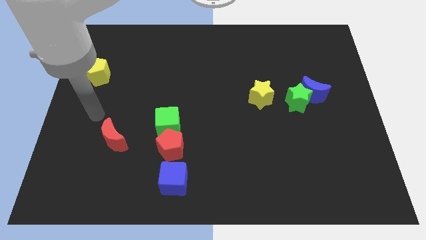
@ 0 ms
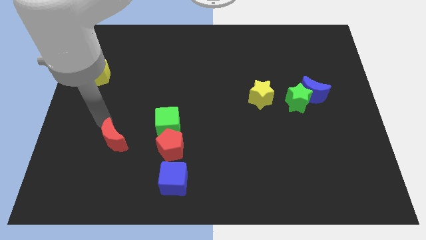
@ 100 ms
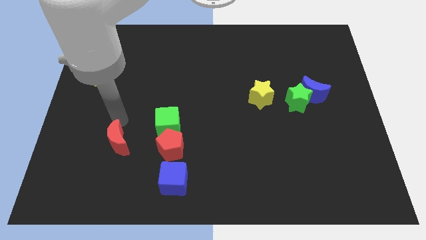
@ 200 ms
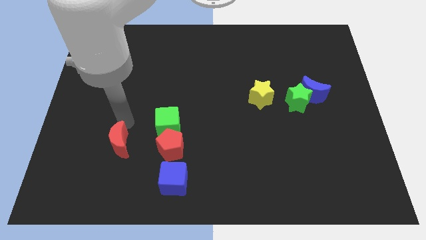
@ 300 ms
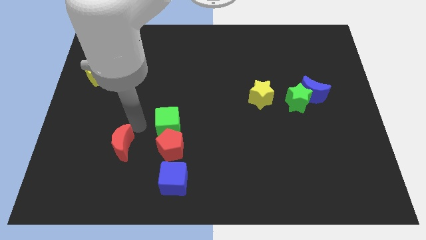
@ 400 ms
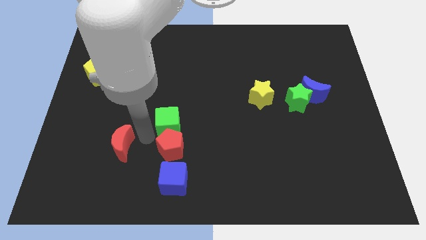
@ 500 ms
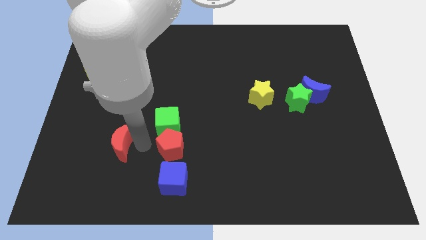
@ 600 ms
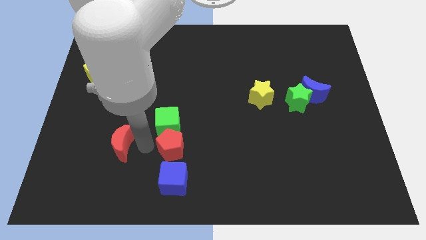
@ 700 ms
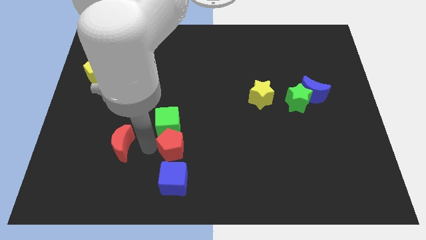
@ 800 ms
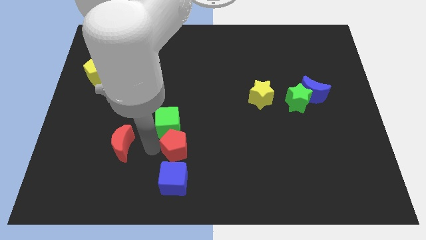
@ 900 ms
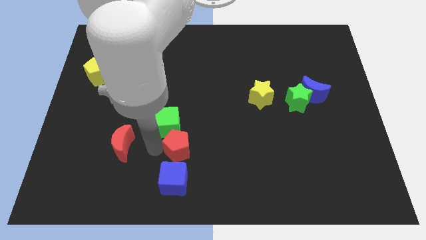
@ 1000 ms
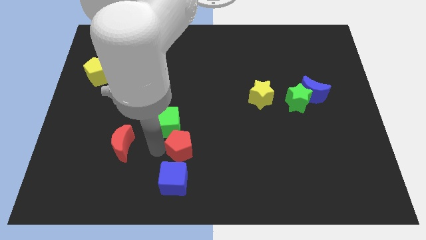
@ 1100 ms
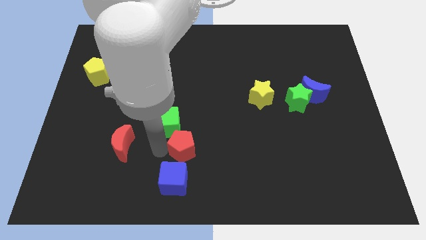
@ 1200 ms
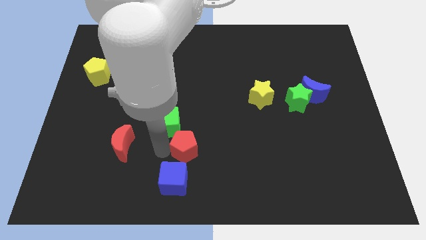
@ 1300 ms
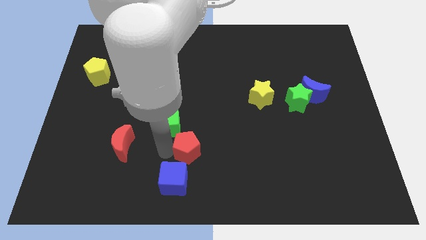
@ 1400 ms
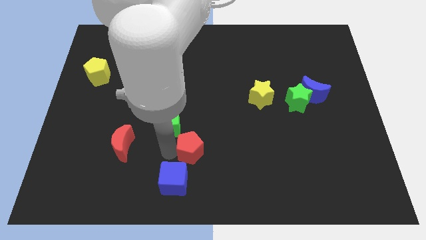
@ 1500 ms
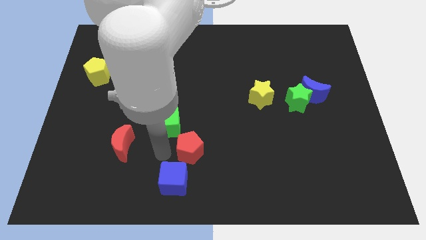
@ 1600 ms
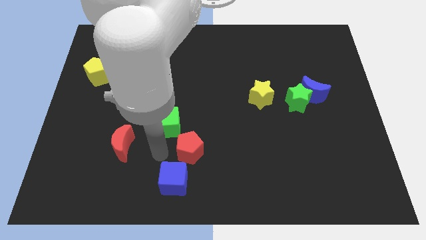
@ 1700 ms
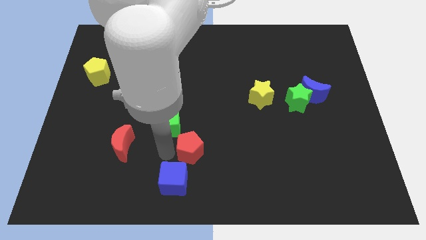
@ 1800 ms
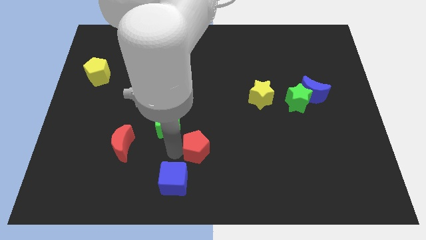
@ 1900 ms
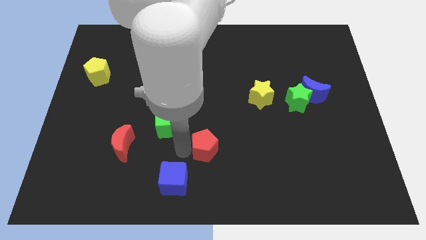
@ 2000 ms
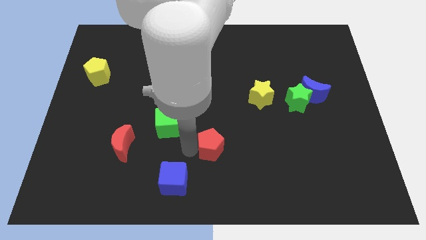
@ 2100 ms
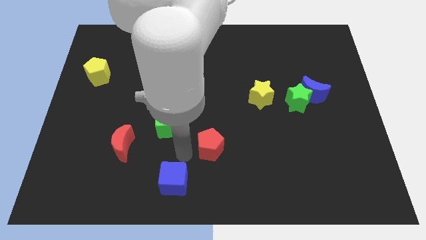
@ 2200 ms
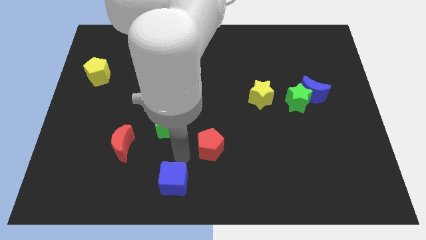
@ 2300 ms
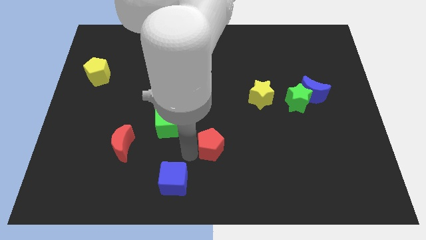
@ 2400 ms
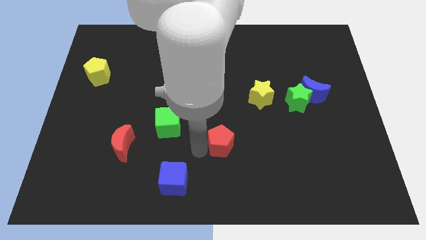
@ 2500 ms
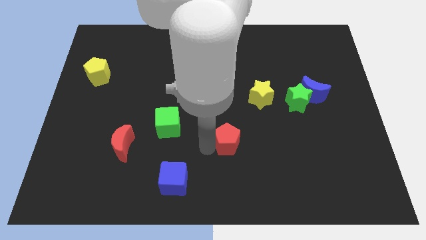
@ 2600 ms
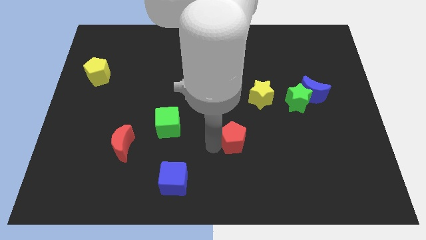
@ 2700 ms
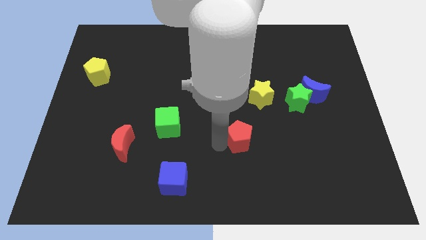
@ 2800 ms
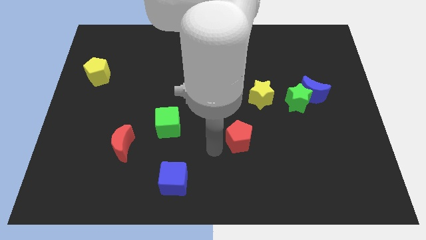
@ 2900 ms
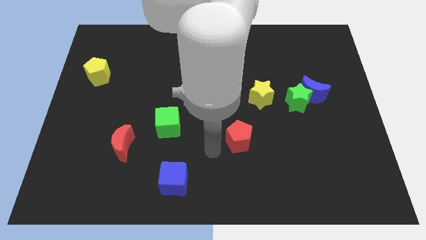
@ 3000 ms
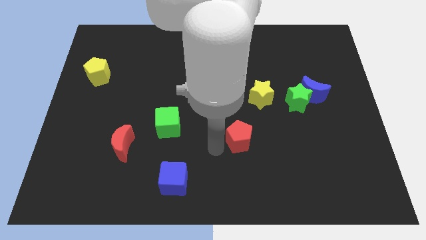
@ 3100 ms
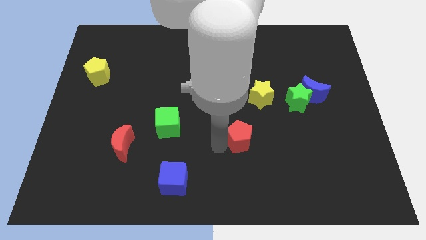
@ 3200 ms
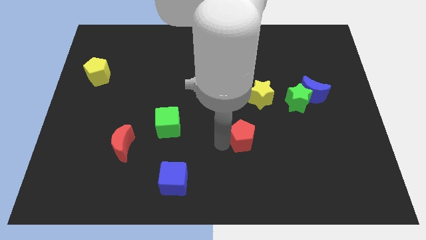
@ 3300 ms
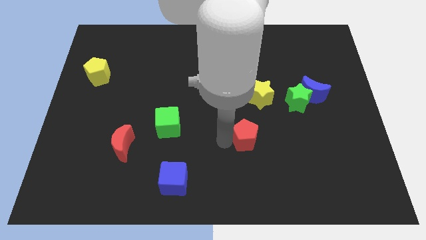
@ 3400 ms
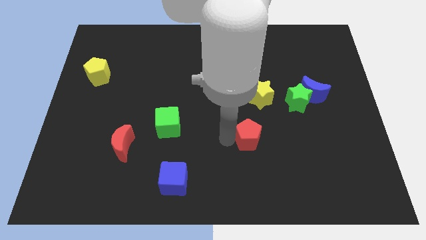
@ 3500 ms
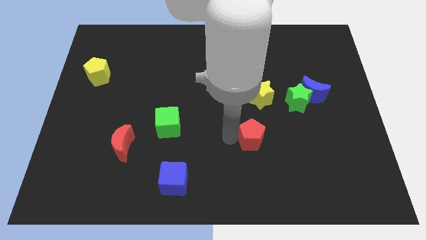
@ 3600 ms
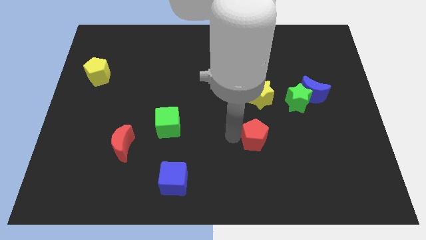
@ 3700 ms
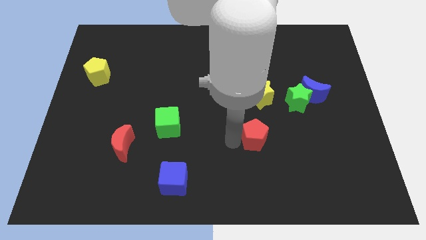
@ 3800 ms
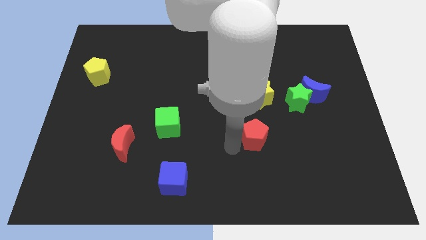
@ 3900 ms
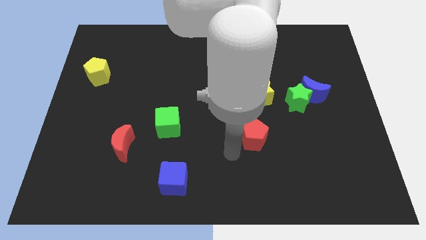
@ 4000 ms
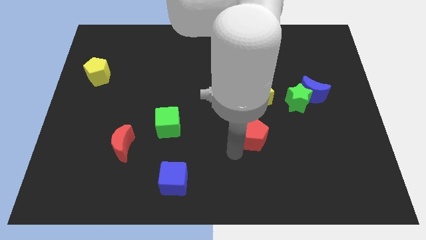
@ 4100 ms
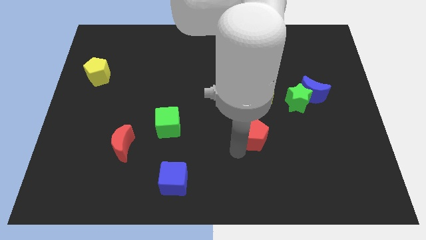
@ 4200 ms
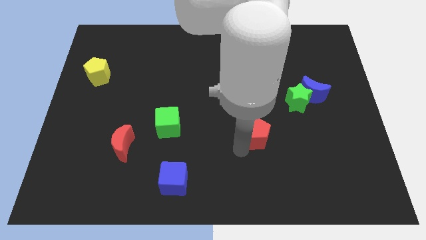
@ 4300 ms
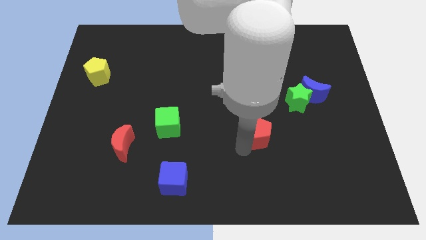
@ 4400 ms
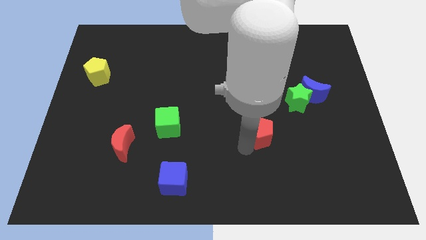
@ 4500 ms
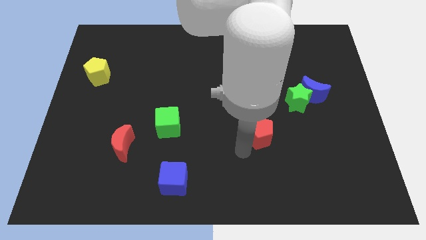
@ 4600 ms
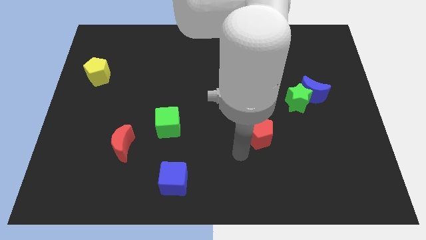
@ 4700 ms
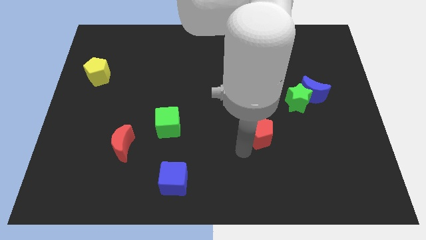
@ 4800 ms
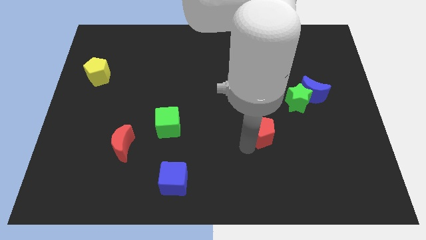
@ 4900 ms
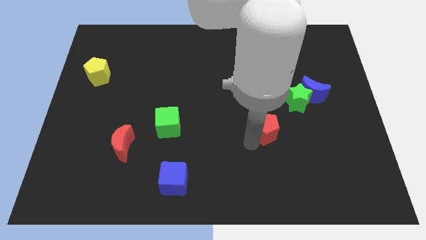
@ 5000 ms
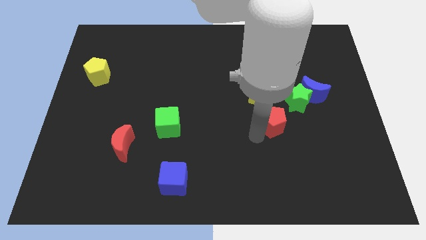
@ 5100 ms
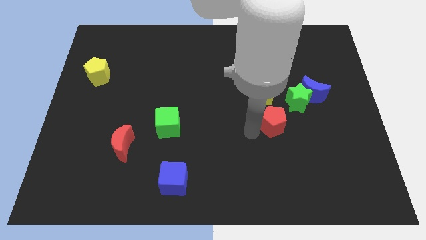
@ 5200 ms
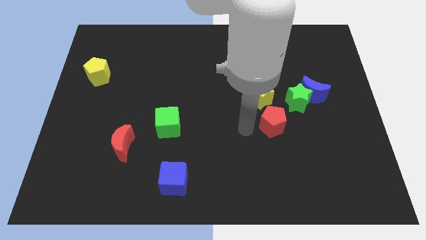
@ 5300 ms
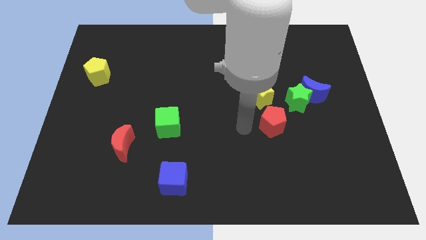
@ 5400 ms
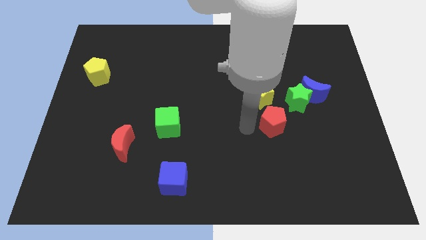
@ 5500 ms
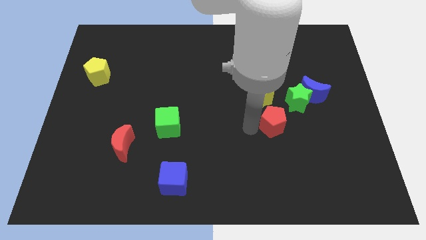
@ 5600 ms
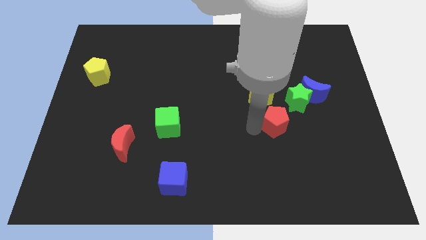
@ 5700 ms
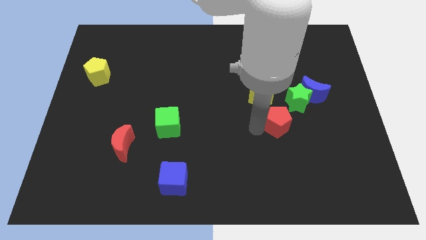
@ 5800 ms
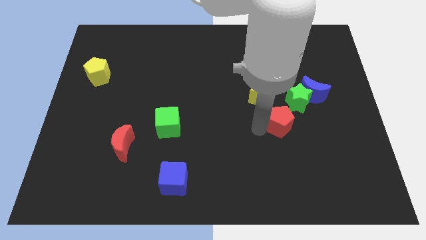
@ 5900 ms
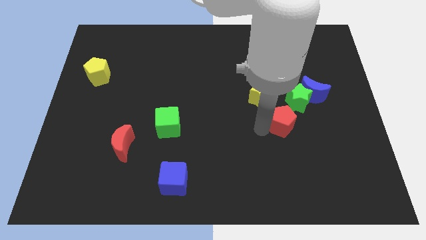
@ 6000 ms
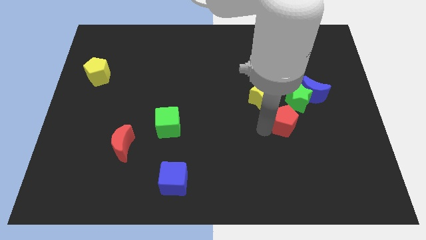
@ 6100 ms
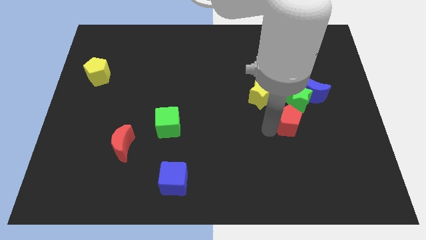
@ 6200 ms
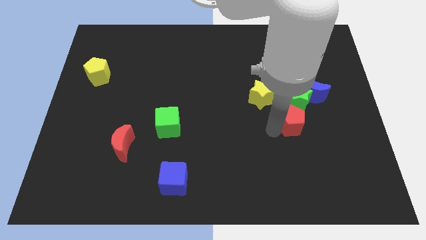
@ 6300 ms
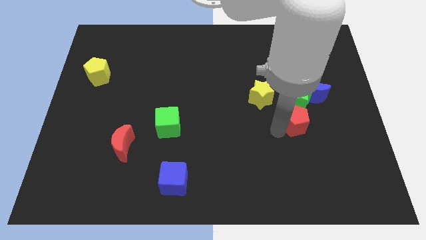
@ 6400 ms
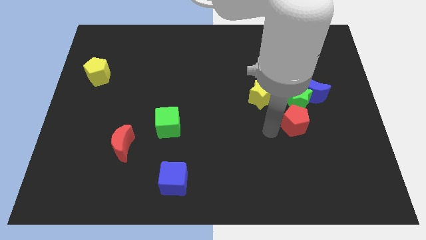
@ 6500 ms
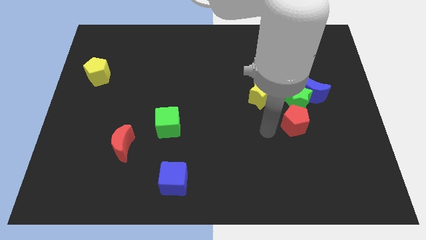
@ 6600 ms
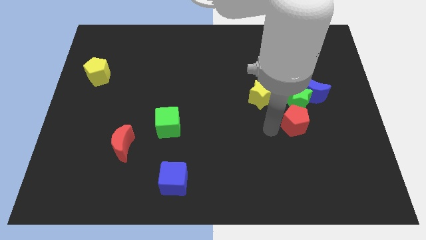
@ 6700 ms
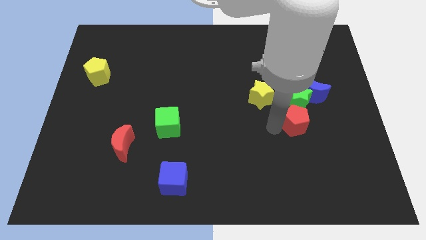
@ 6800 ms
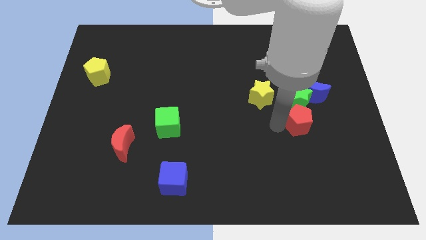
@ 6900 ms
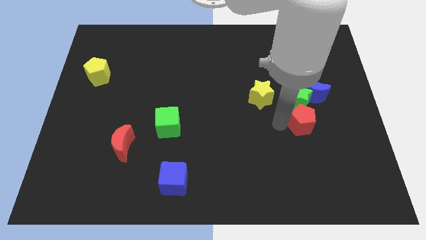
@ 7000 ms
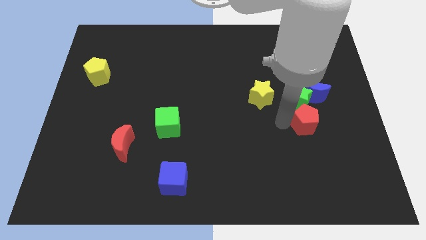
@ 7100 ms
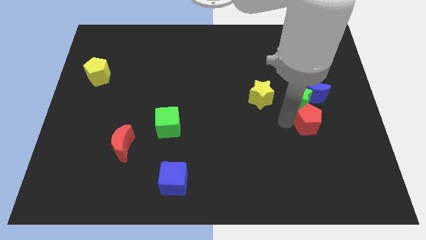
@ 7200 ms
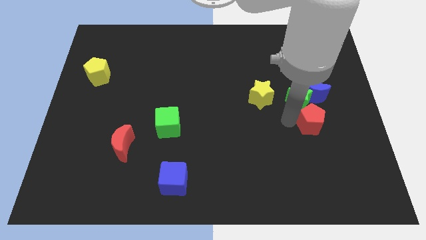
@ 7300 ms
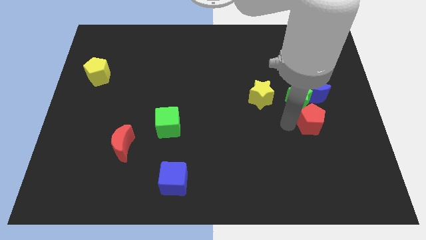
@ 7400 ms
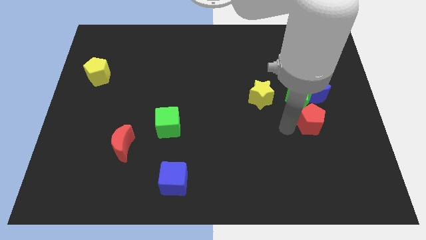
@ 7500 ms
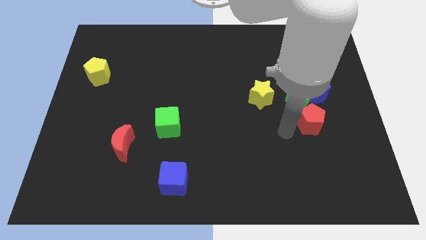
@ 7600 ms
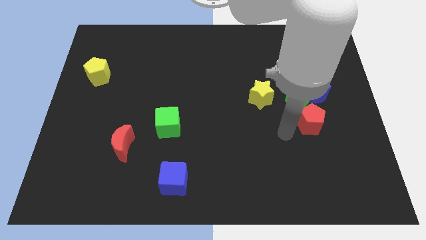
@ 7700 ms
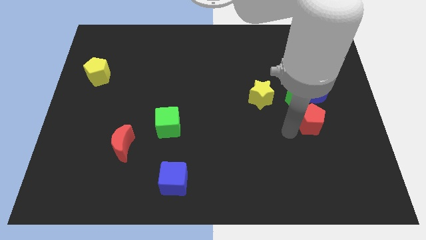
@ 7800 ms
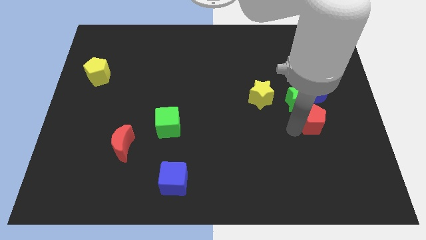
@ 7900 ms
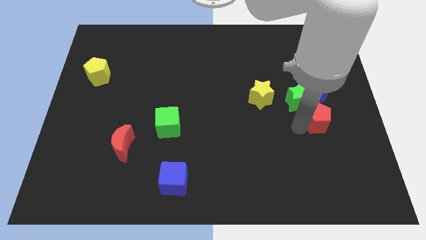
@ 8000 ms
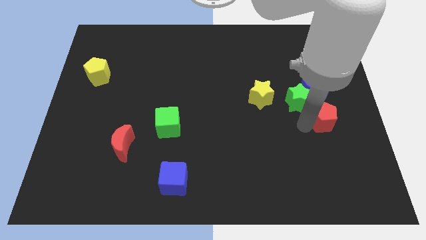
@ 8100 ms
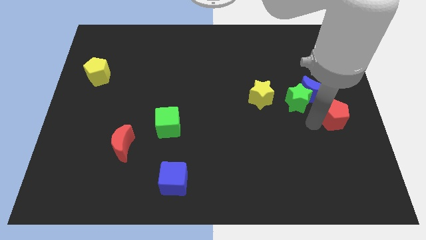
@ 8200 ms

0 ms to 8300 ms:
slide the red pentagon to the right side of the board
